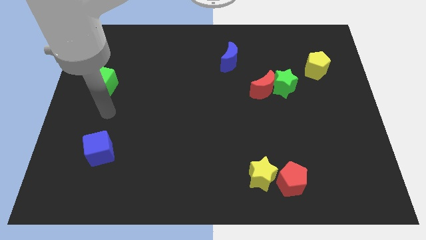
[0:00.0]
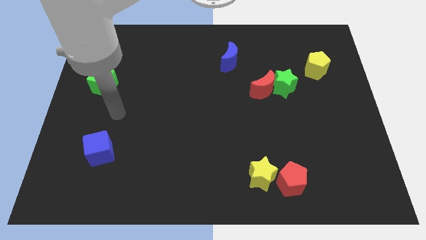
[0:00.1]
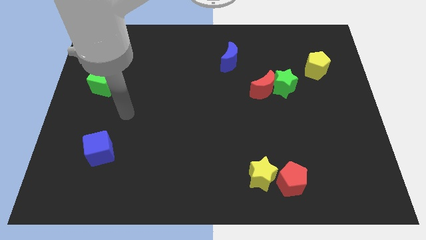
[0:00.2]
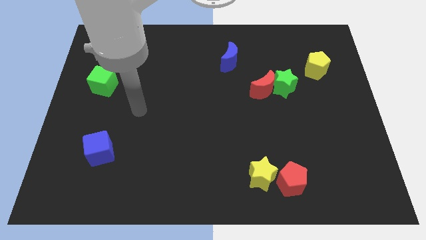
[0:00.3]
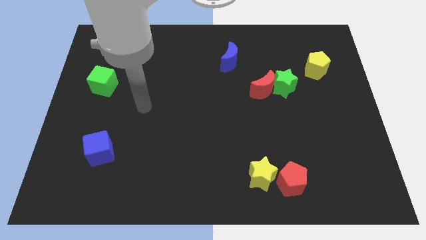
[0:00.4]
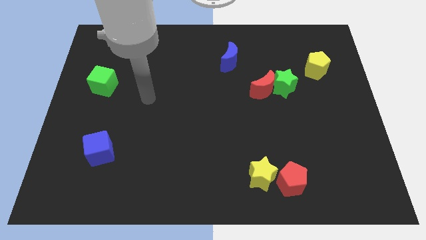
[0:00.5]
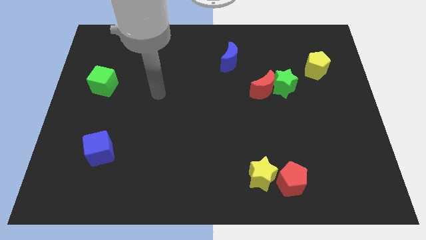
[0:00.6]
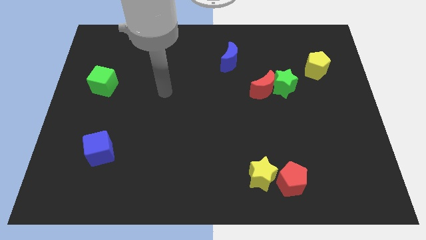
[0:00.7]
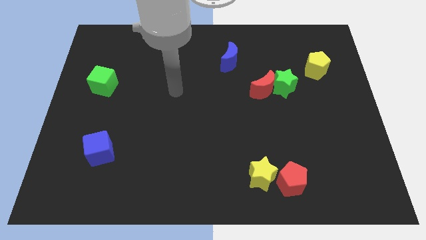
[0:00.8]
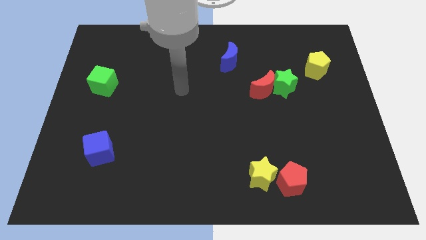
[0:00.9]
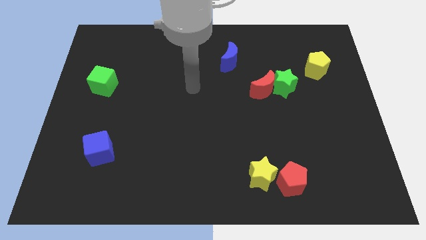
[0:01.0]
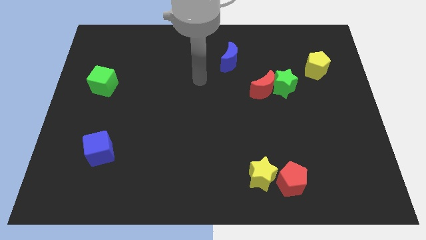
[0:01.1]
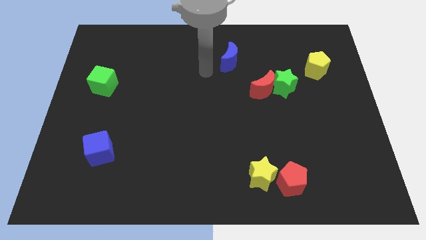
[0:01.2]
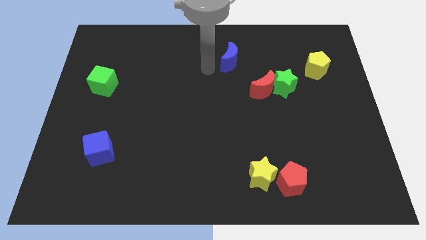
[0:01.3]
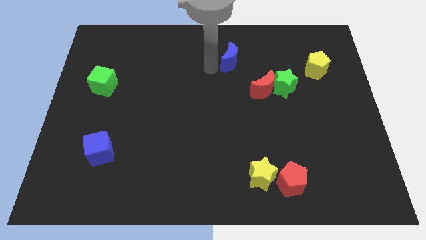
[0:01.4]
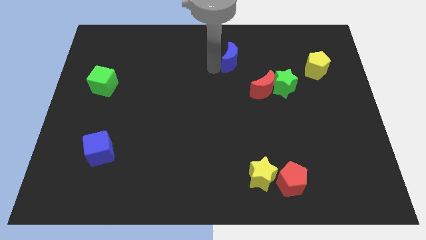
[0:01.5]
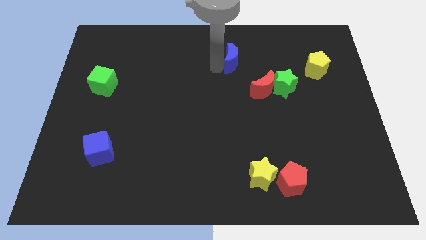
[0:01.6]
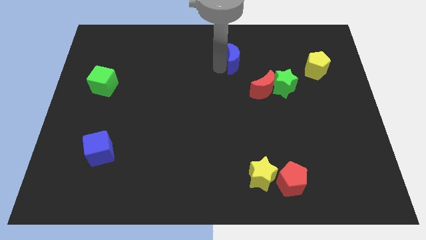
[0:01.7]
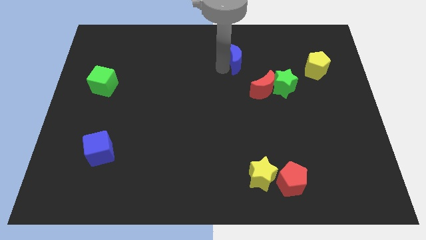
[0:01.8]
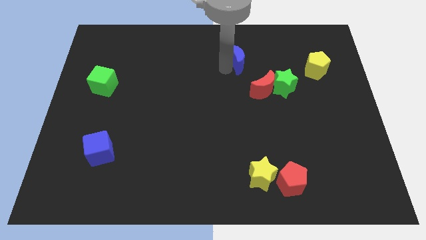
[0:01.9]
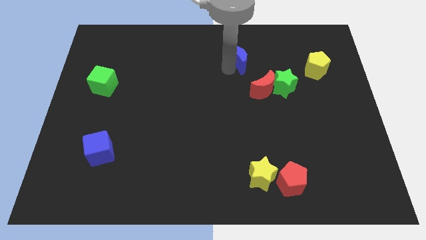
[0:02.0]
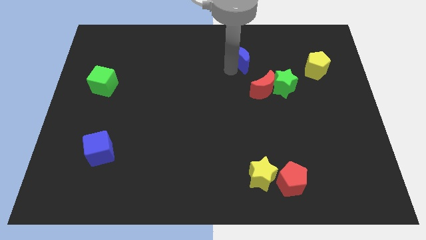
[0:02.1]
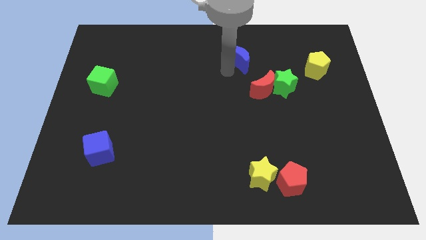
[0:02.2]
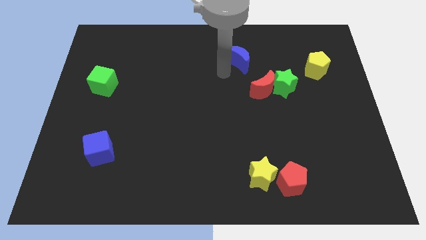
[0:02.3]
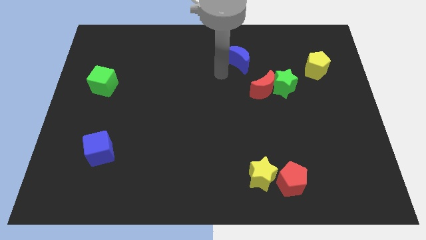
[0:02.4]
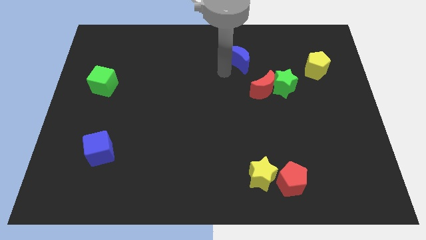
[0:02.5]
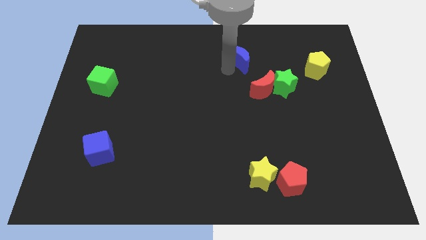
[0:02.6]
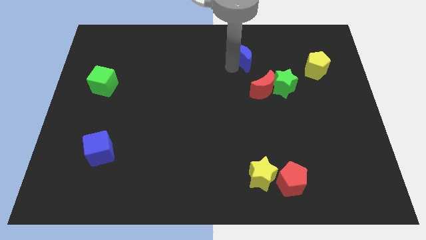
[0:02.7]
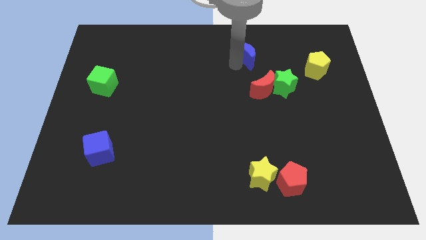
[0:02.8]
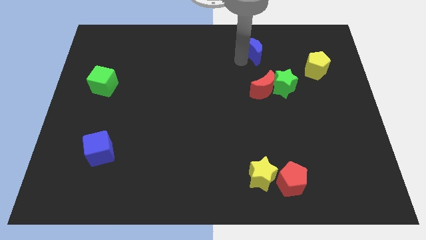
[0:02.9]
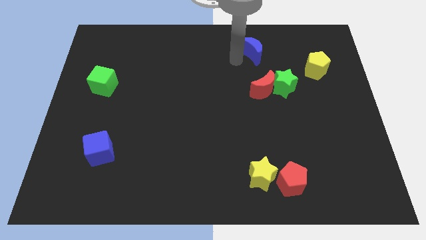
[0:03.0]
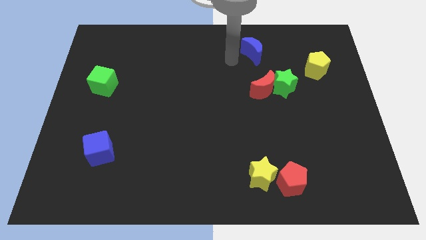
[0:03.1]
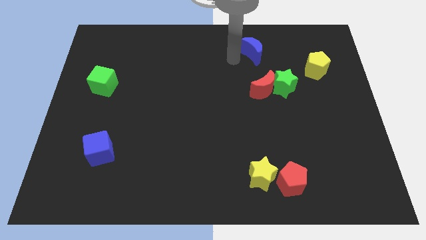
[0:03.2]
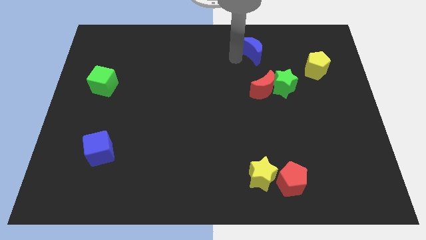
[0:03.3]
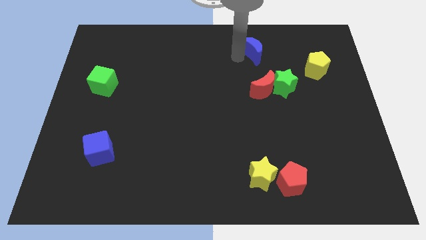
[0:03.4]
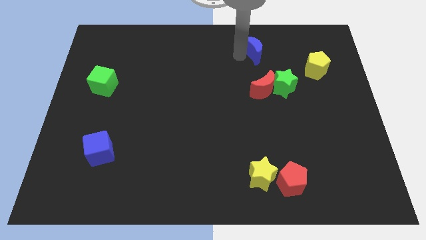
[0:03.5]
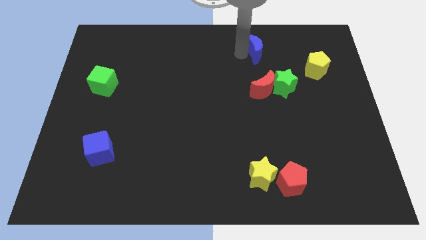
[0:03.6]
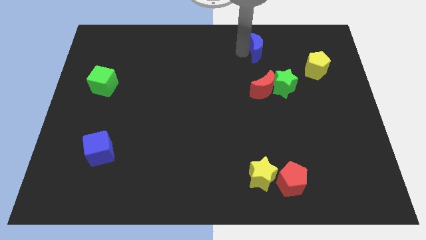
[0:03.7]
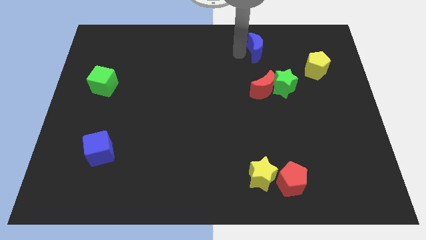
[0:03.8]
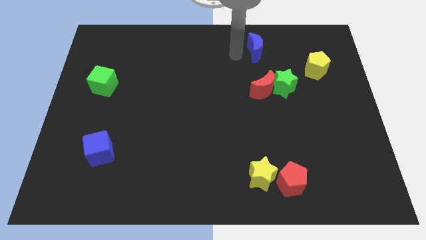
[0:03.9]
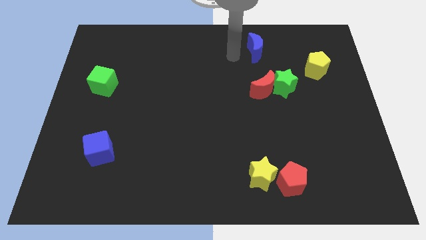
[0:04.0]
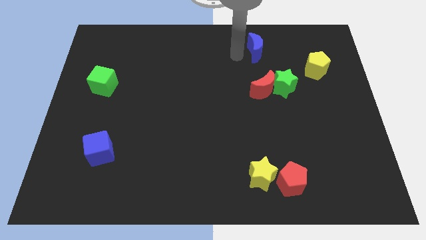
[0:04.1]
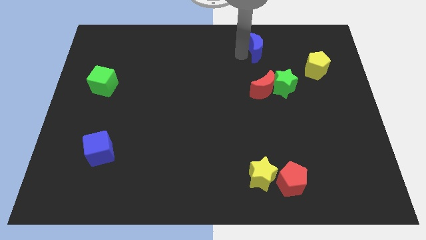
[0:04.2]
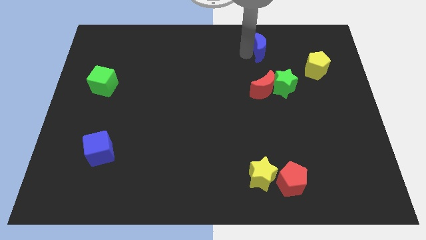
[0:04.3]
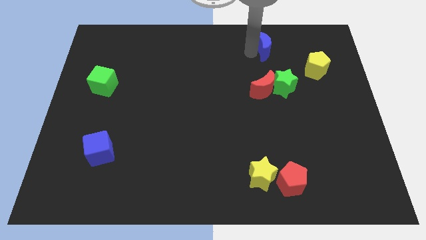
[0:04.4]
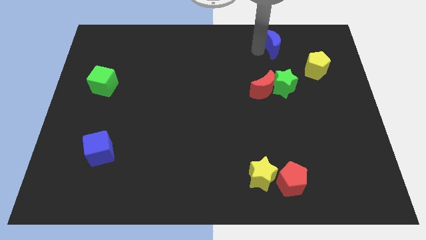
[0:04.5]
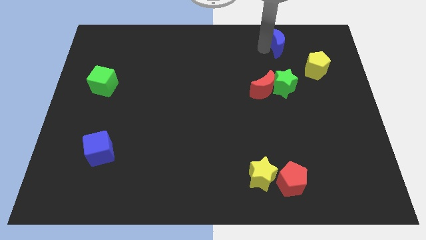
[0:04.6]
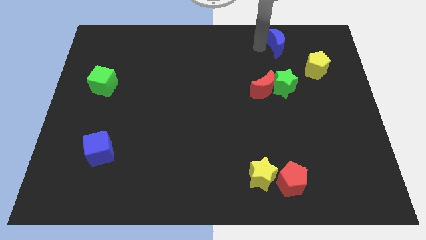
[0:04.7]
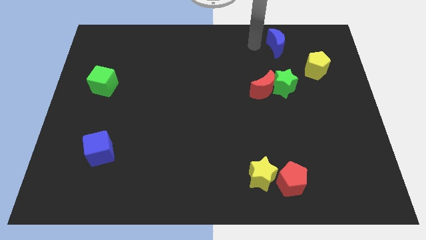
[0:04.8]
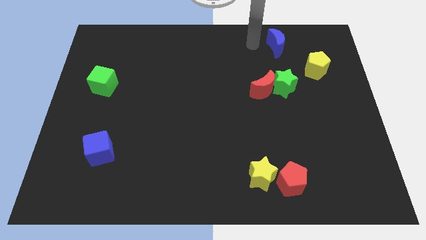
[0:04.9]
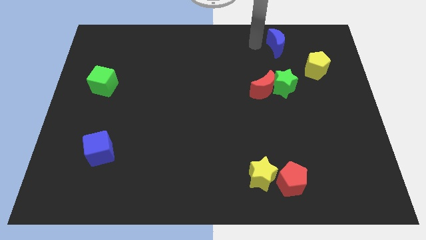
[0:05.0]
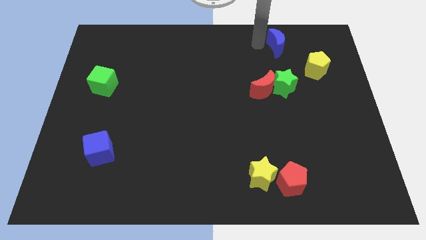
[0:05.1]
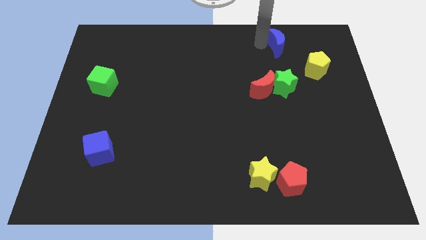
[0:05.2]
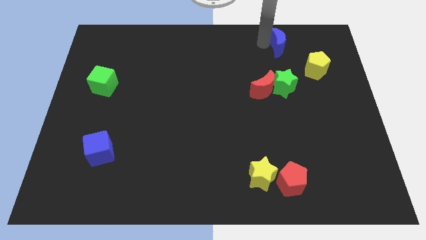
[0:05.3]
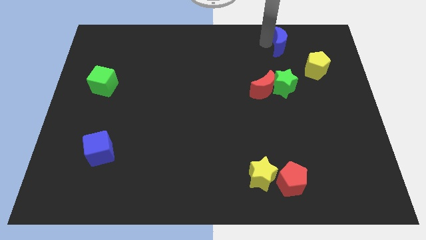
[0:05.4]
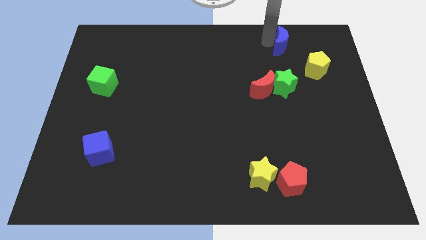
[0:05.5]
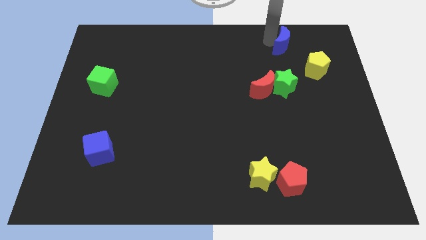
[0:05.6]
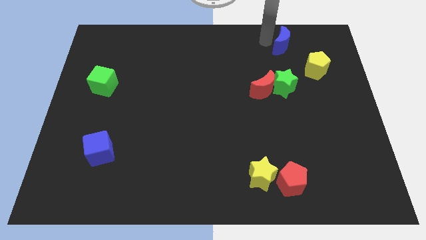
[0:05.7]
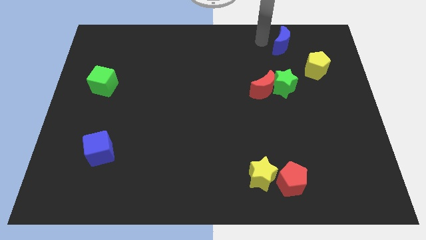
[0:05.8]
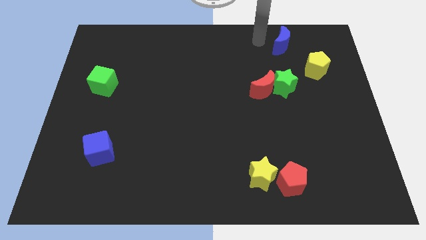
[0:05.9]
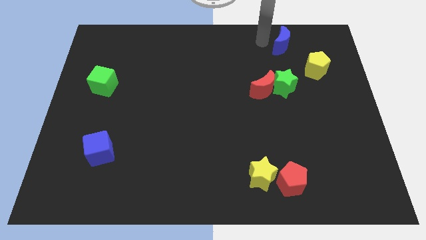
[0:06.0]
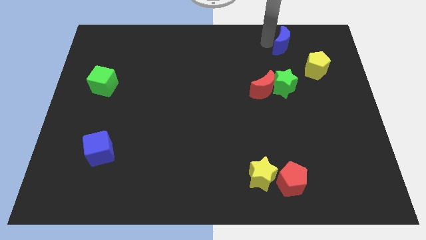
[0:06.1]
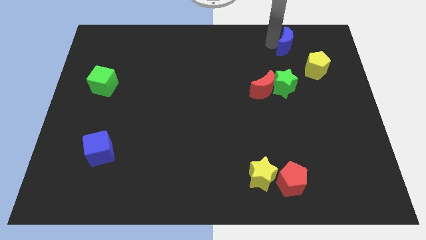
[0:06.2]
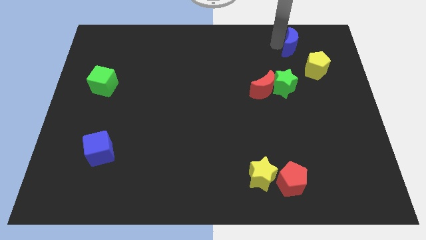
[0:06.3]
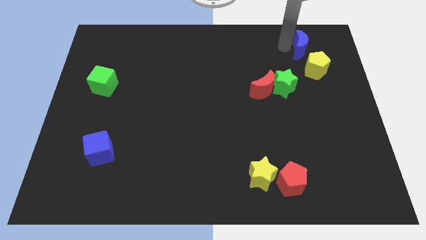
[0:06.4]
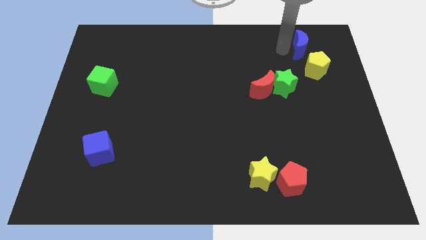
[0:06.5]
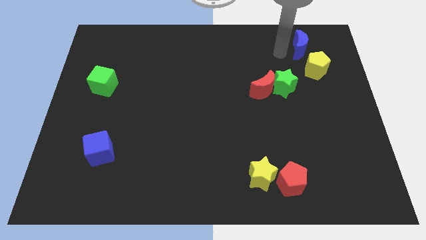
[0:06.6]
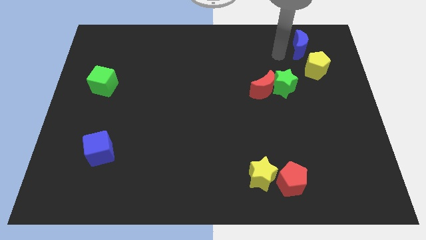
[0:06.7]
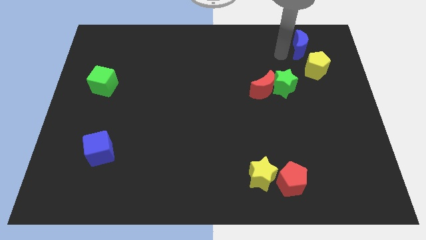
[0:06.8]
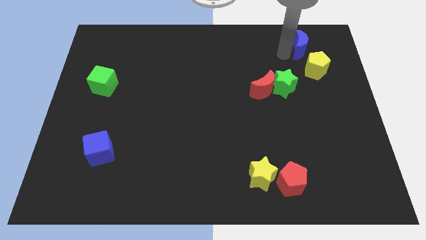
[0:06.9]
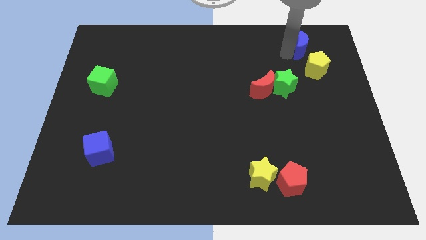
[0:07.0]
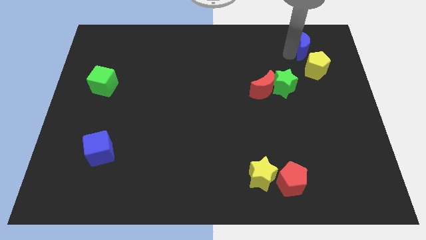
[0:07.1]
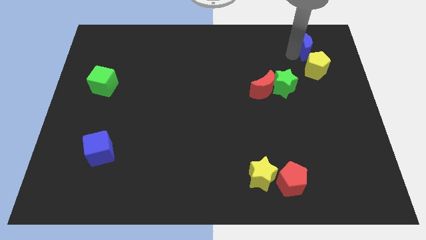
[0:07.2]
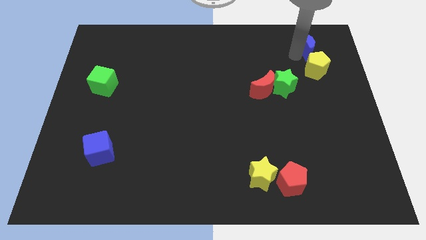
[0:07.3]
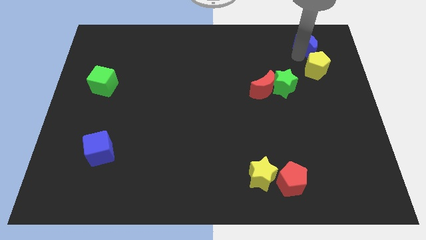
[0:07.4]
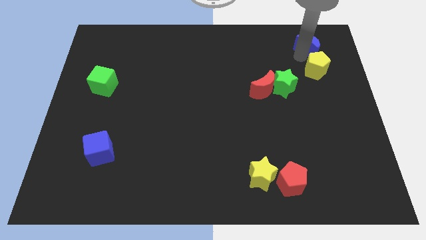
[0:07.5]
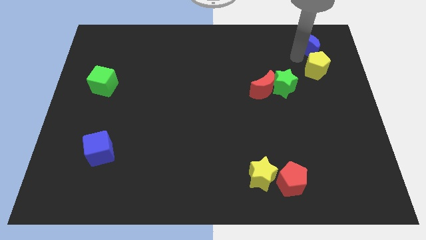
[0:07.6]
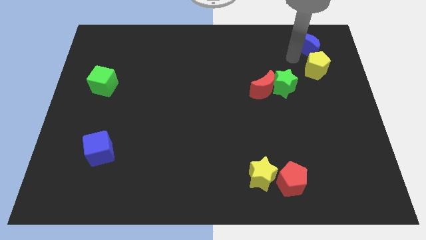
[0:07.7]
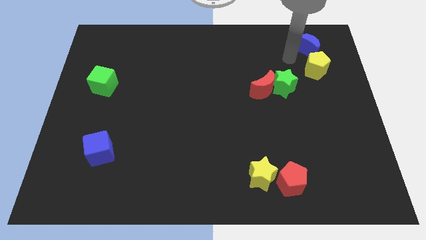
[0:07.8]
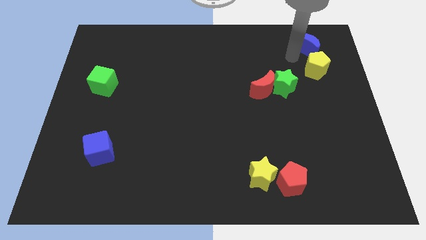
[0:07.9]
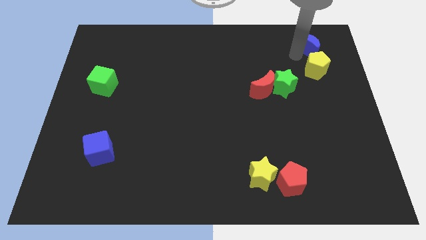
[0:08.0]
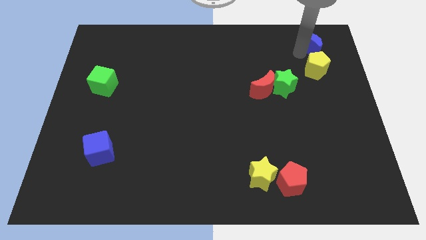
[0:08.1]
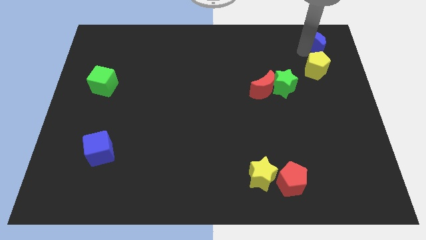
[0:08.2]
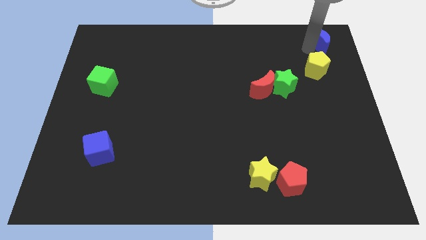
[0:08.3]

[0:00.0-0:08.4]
put the blue moon to the top right corner
